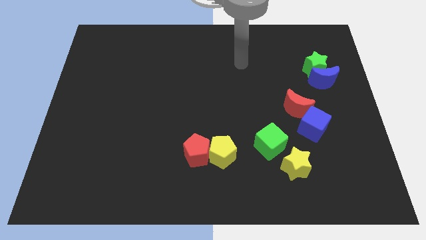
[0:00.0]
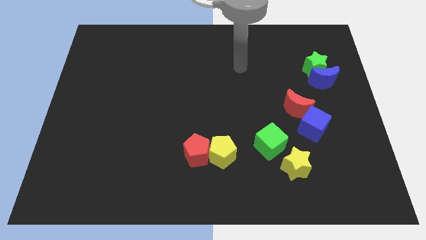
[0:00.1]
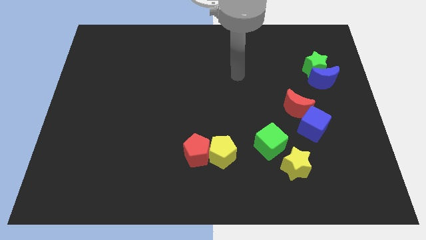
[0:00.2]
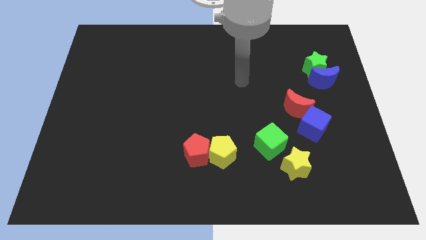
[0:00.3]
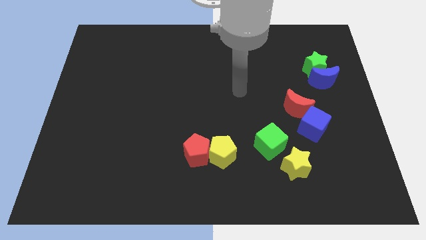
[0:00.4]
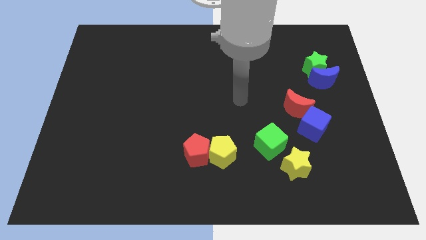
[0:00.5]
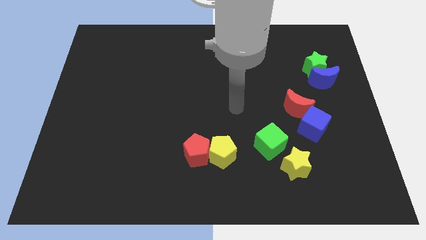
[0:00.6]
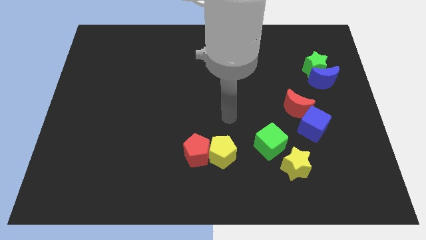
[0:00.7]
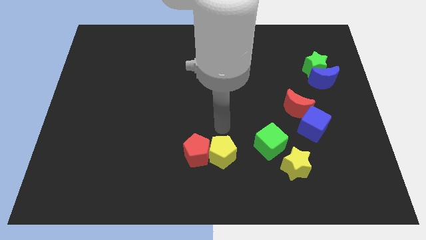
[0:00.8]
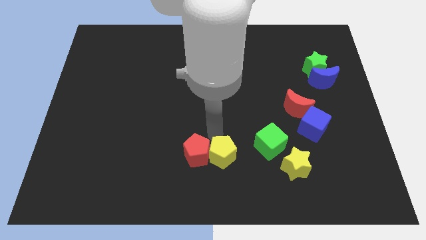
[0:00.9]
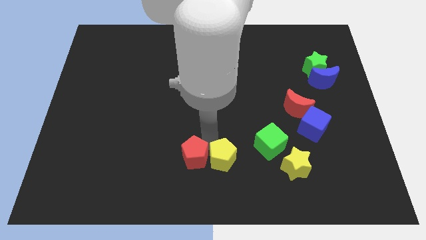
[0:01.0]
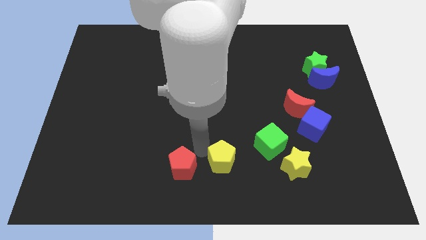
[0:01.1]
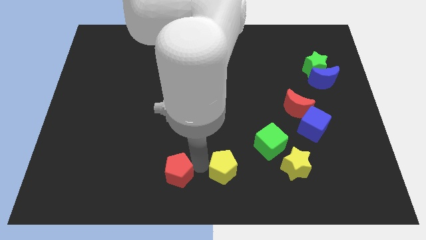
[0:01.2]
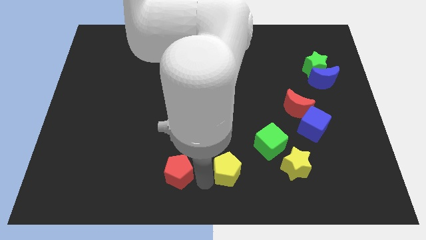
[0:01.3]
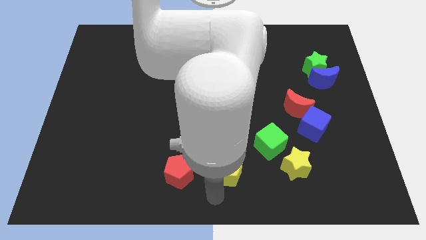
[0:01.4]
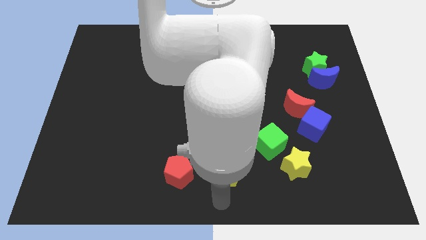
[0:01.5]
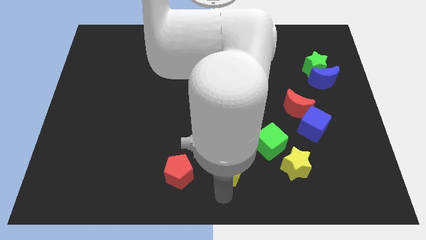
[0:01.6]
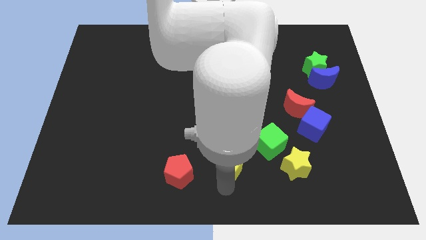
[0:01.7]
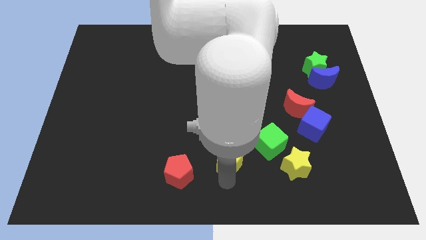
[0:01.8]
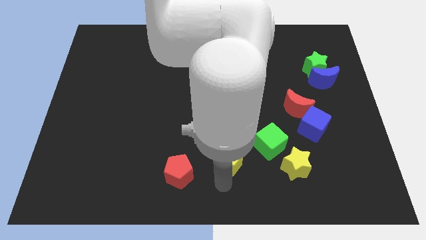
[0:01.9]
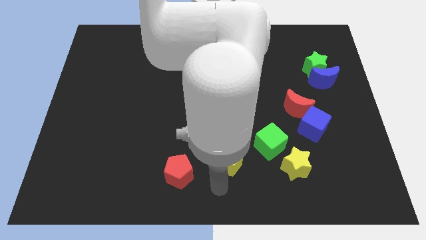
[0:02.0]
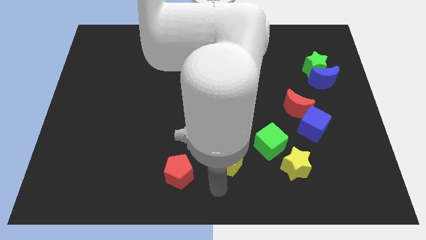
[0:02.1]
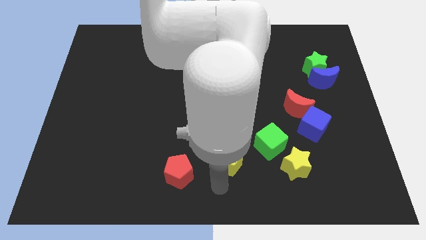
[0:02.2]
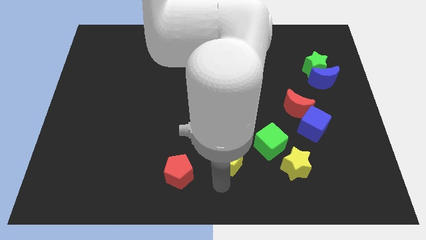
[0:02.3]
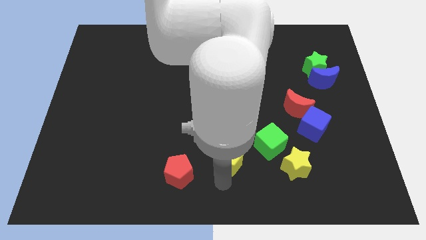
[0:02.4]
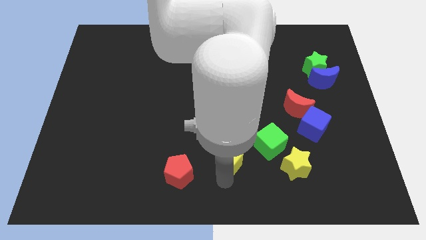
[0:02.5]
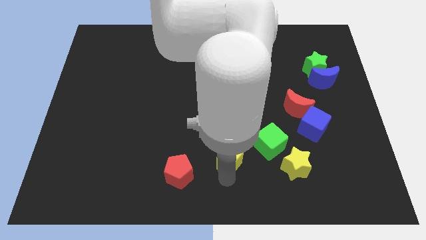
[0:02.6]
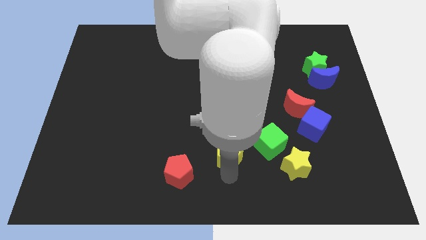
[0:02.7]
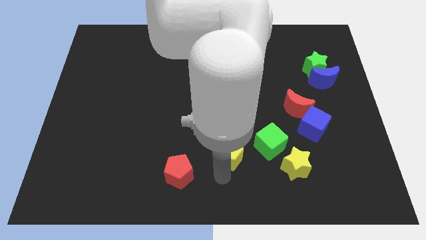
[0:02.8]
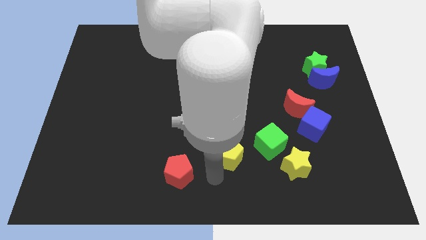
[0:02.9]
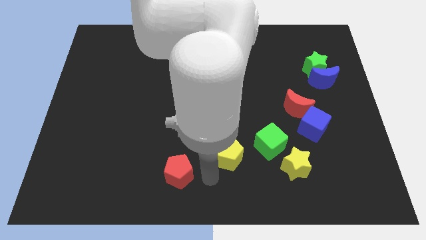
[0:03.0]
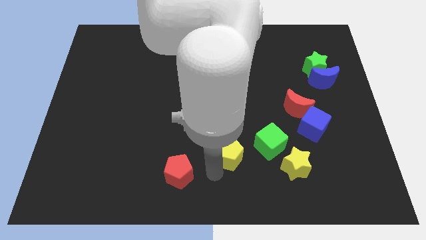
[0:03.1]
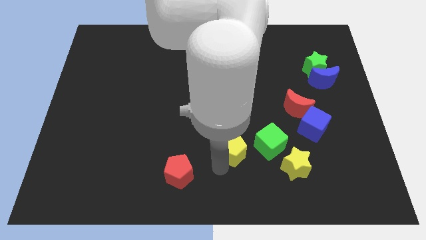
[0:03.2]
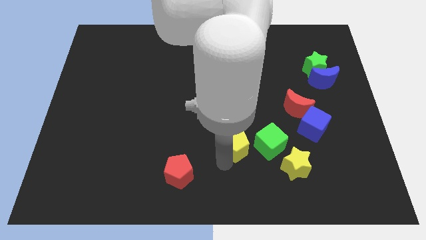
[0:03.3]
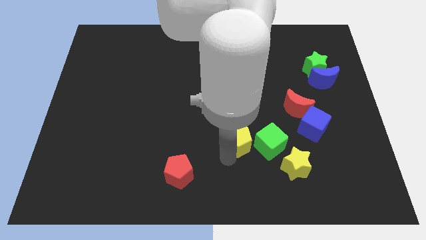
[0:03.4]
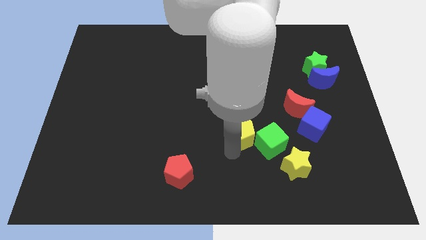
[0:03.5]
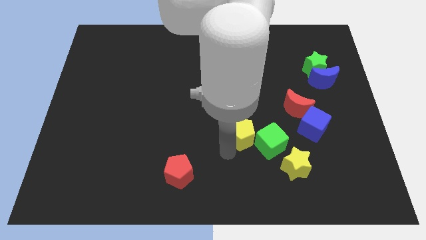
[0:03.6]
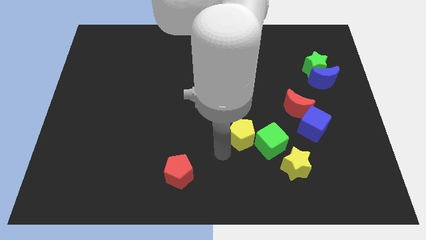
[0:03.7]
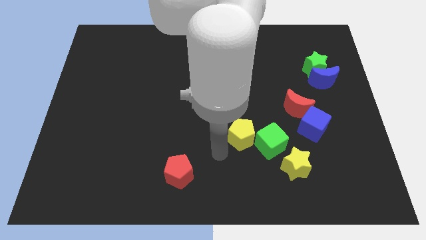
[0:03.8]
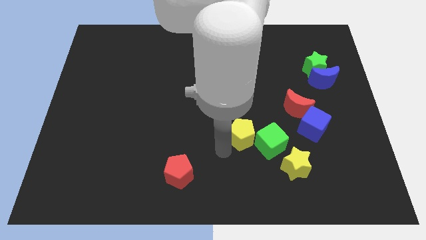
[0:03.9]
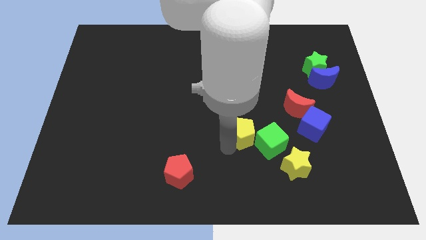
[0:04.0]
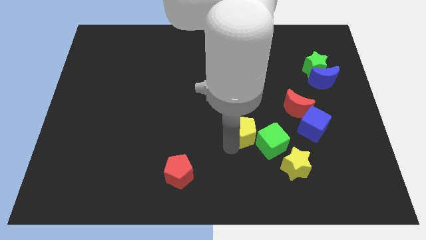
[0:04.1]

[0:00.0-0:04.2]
slightly slide the yellow pentagon diagonally up and right

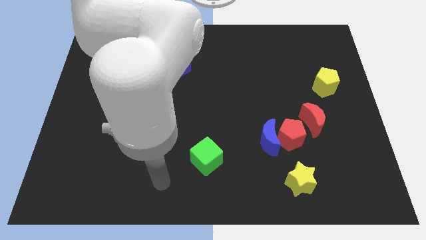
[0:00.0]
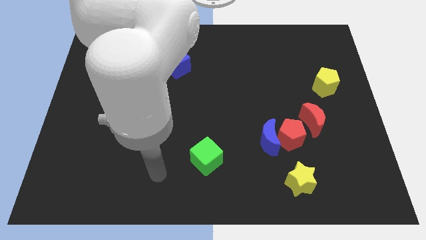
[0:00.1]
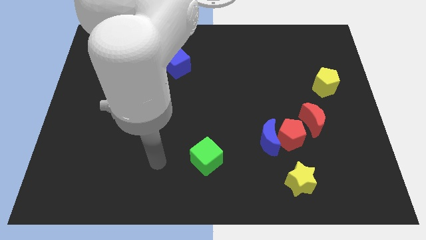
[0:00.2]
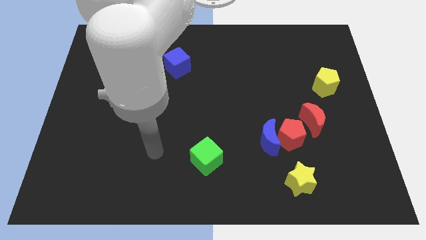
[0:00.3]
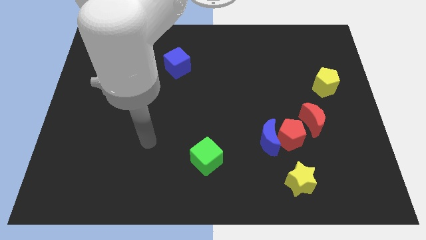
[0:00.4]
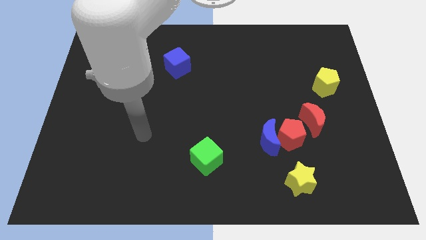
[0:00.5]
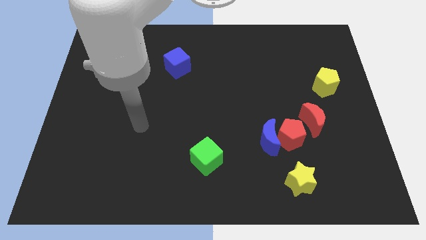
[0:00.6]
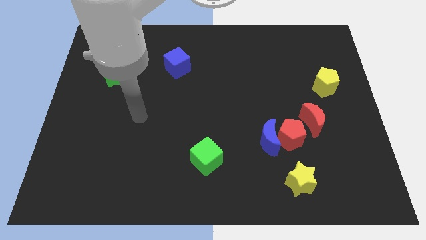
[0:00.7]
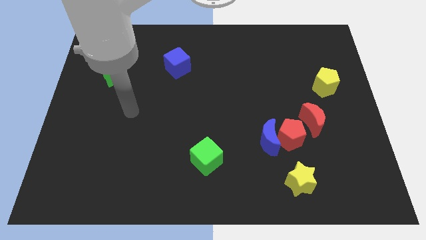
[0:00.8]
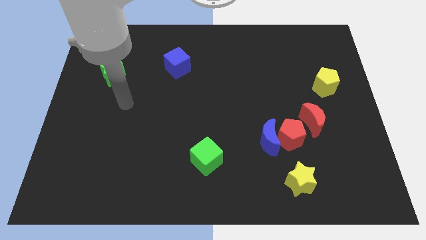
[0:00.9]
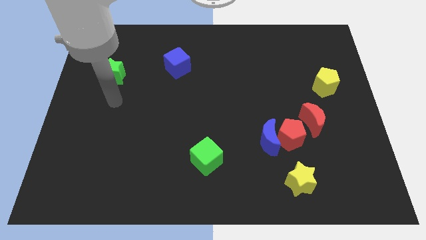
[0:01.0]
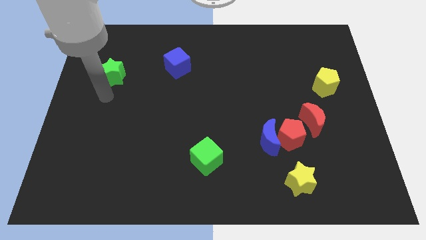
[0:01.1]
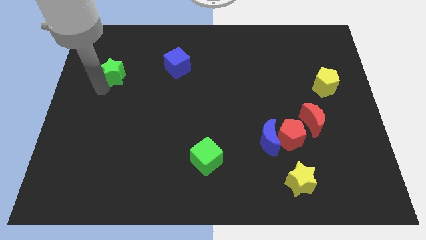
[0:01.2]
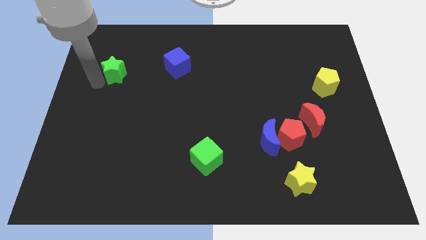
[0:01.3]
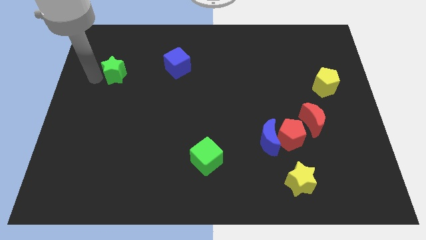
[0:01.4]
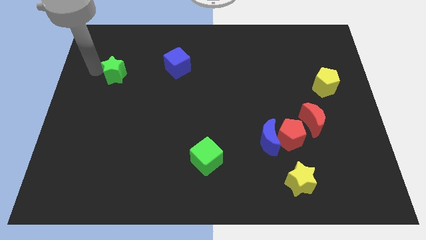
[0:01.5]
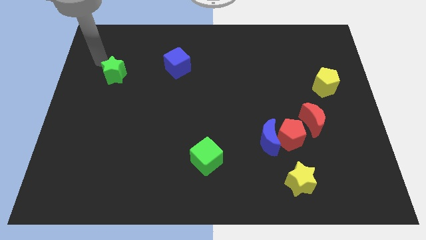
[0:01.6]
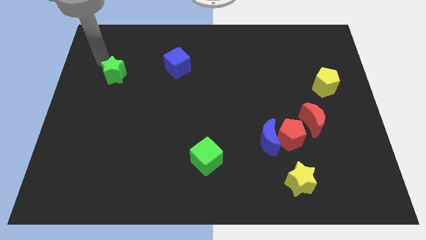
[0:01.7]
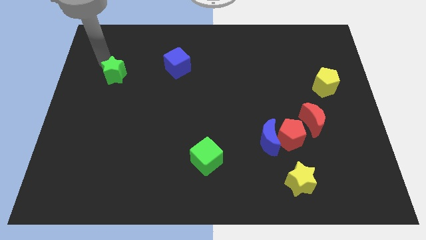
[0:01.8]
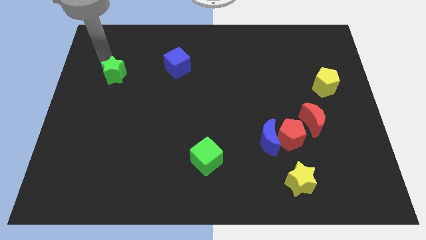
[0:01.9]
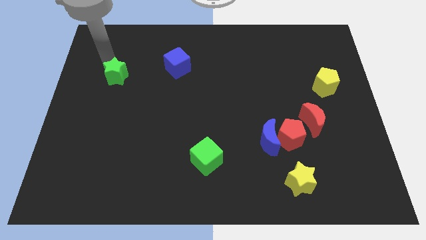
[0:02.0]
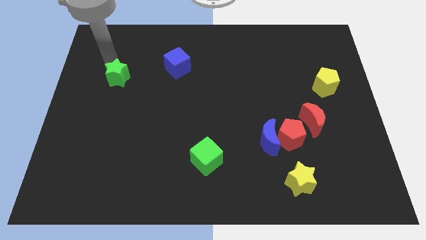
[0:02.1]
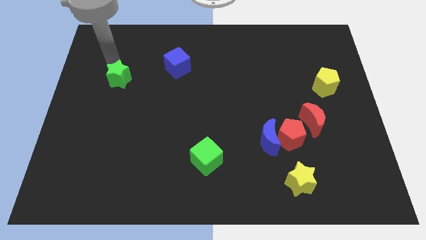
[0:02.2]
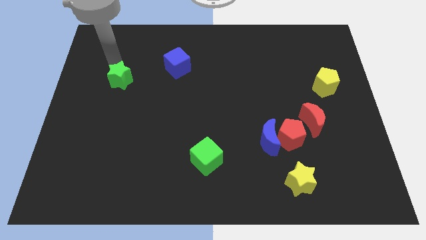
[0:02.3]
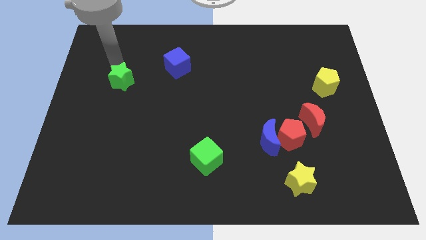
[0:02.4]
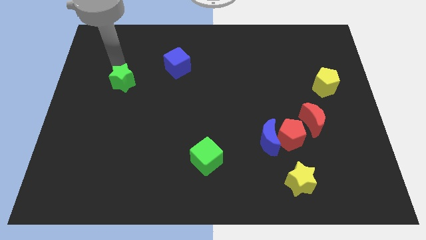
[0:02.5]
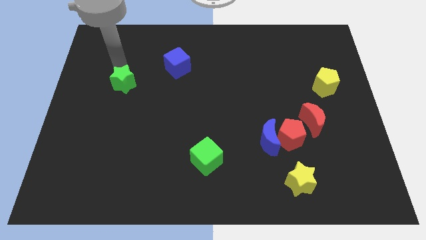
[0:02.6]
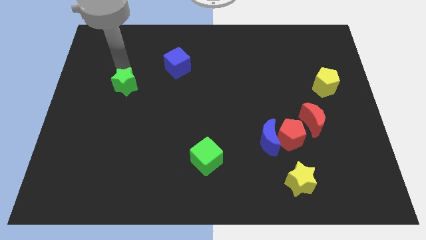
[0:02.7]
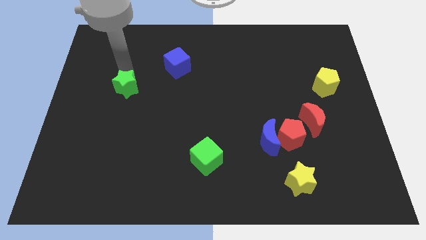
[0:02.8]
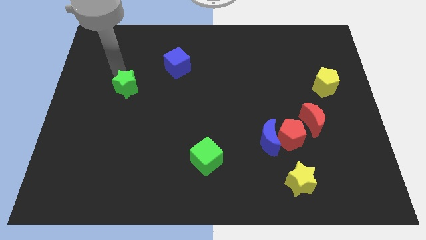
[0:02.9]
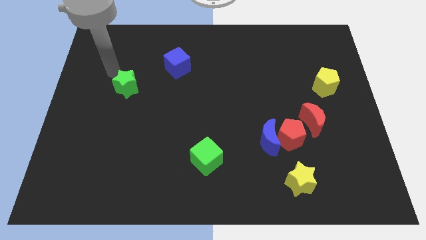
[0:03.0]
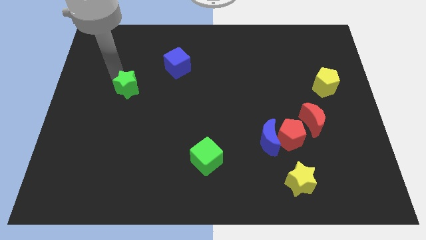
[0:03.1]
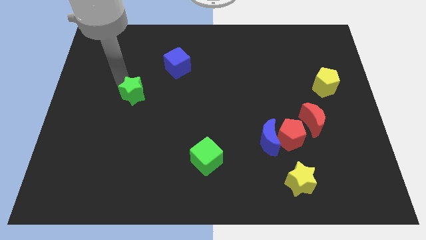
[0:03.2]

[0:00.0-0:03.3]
move the green star a bit down and right diagonally

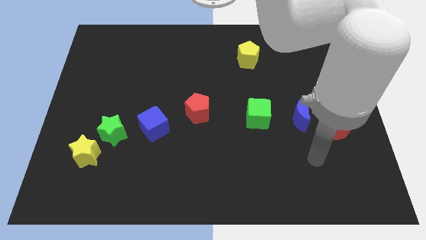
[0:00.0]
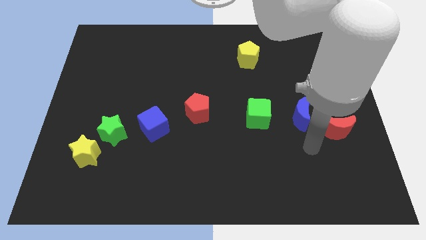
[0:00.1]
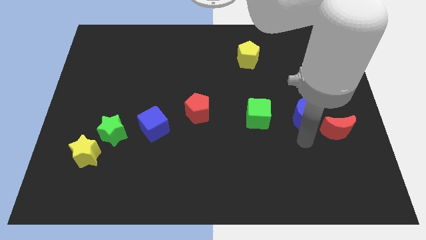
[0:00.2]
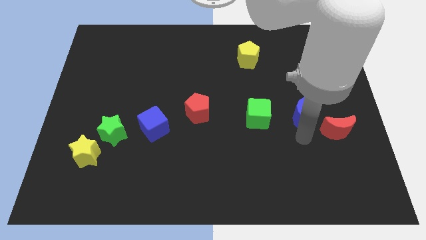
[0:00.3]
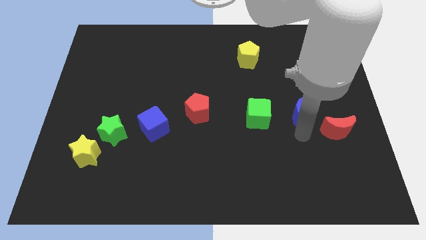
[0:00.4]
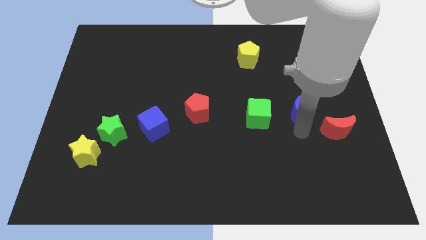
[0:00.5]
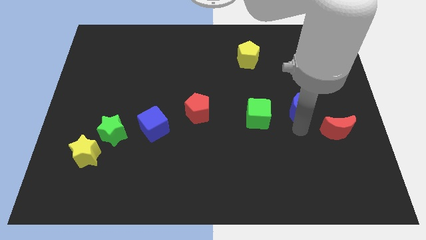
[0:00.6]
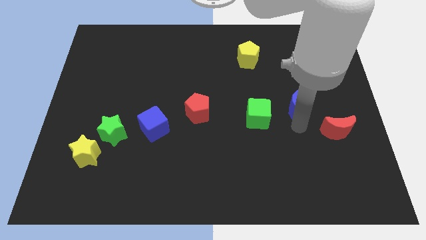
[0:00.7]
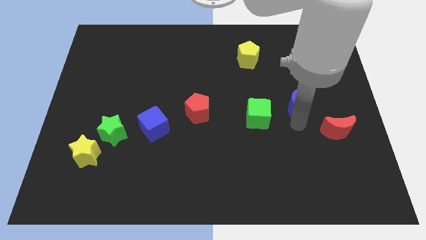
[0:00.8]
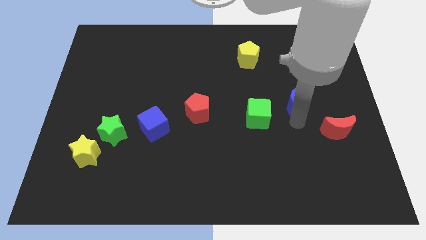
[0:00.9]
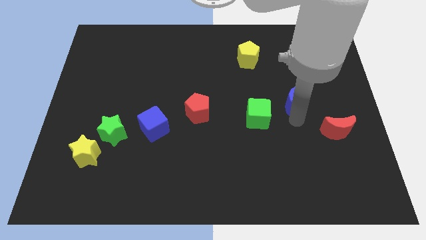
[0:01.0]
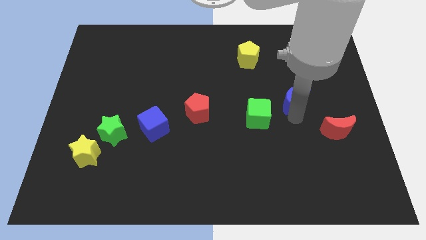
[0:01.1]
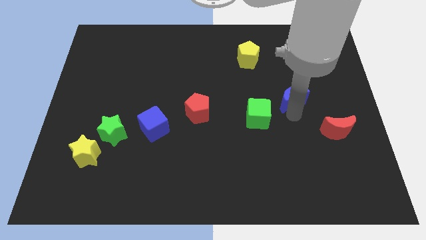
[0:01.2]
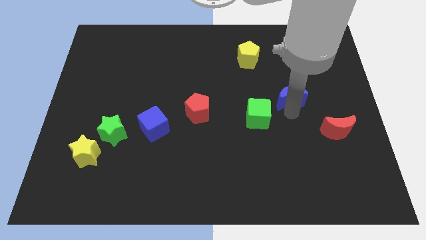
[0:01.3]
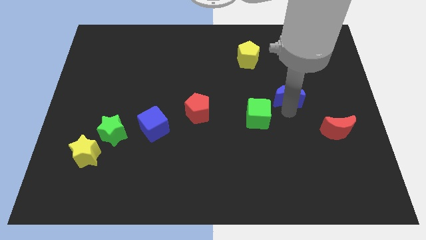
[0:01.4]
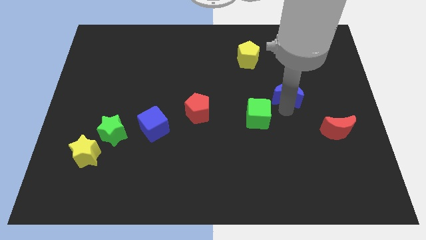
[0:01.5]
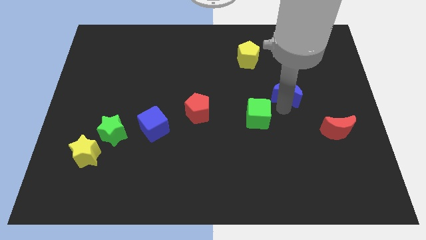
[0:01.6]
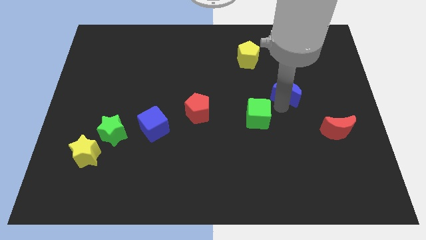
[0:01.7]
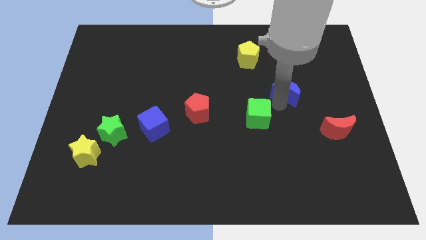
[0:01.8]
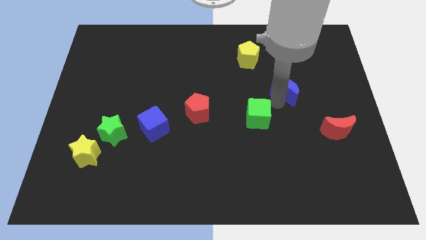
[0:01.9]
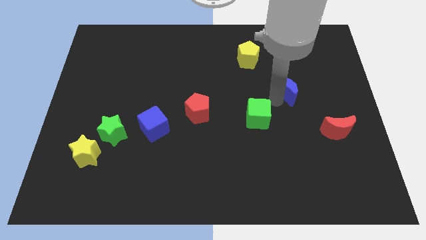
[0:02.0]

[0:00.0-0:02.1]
slide the blue moon slightly up
